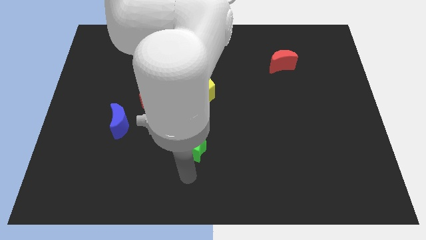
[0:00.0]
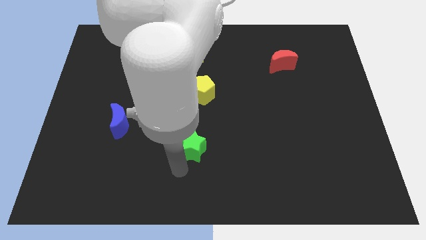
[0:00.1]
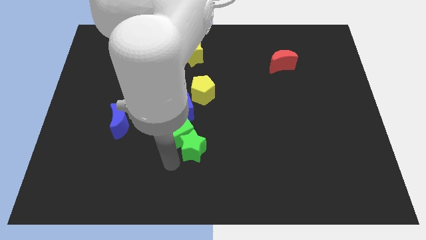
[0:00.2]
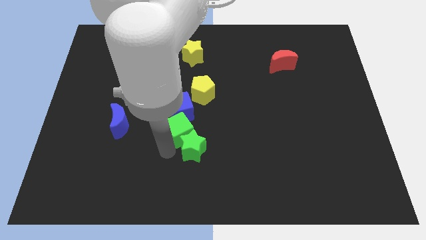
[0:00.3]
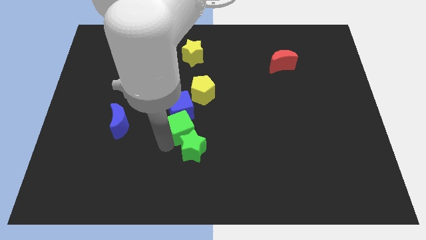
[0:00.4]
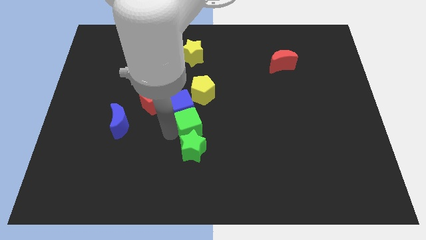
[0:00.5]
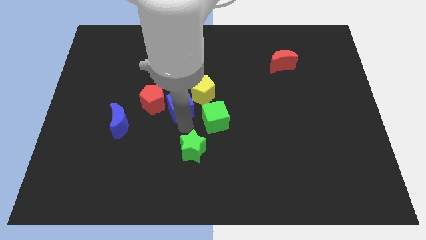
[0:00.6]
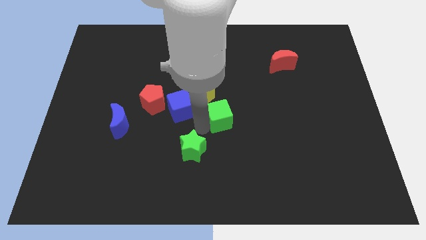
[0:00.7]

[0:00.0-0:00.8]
pull the green star apart from the green cube

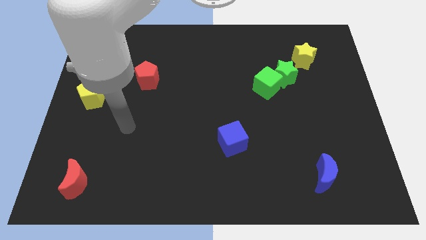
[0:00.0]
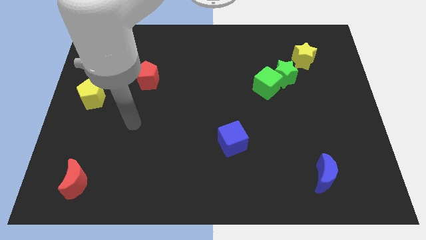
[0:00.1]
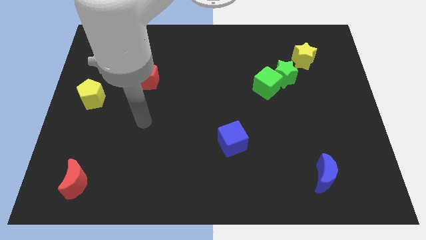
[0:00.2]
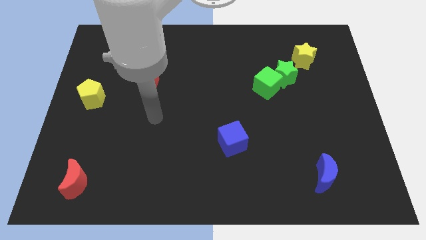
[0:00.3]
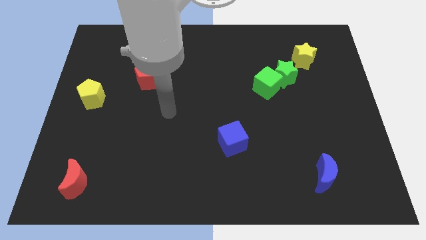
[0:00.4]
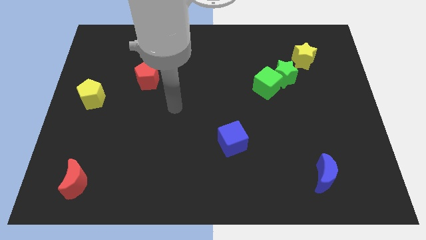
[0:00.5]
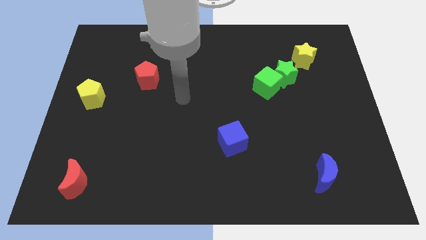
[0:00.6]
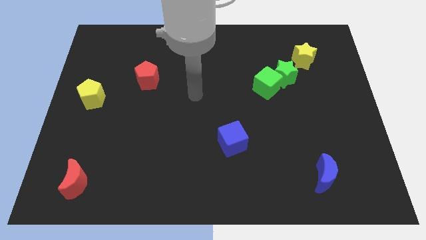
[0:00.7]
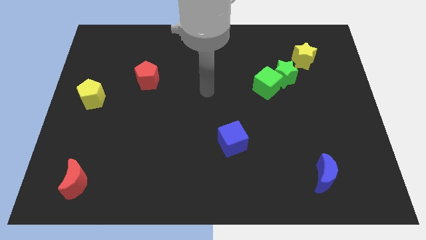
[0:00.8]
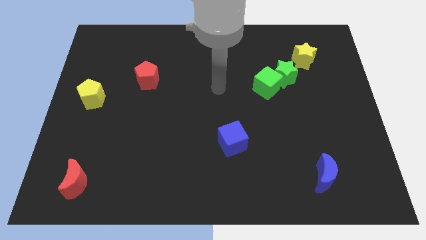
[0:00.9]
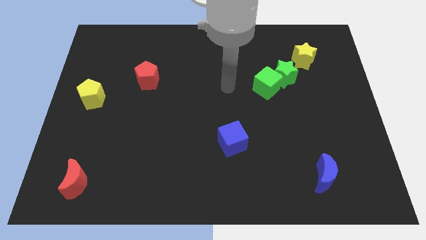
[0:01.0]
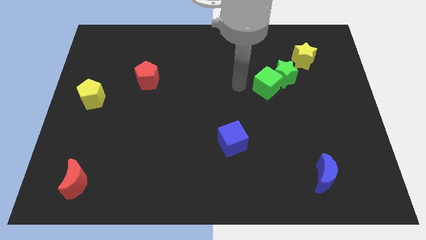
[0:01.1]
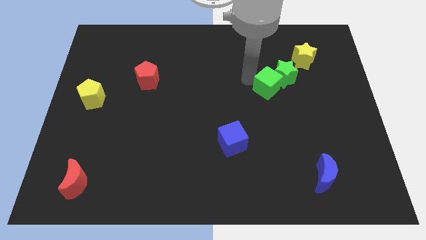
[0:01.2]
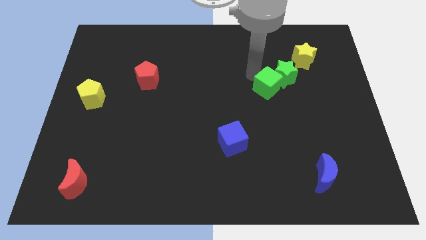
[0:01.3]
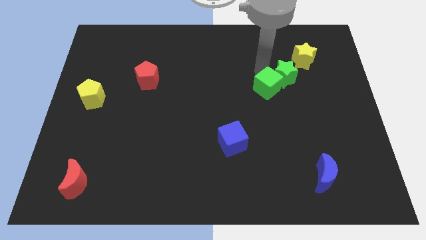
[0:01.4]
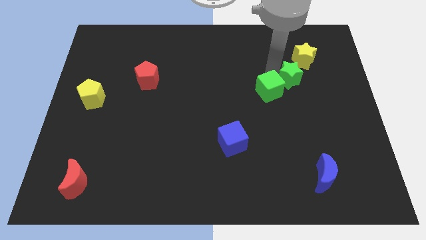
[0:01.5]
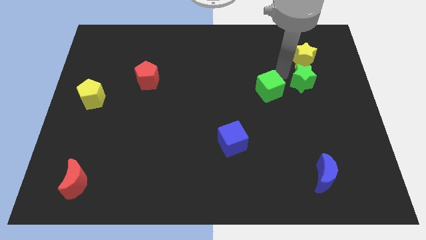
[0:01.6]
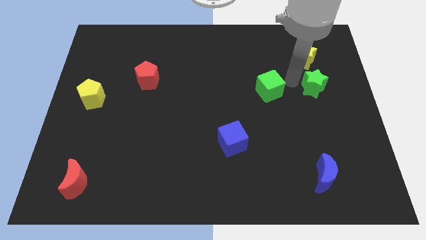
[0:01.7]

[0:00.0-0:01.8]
separate the green cube from the green star

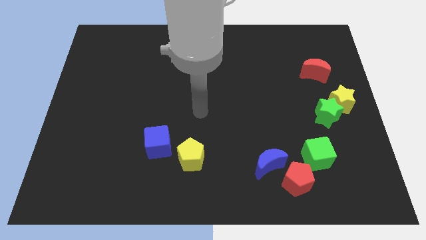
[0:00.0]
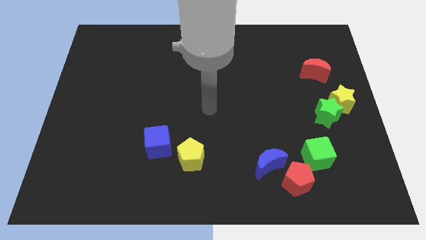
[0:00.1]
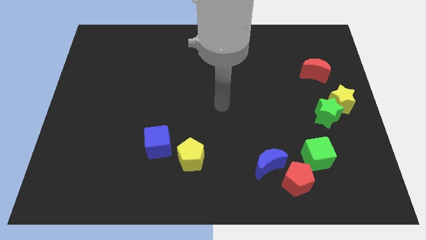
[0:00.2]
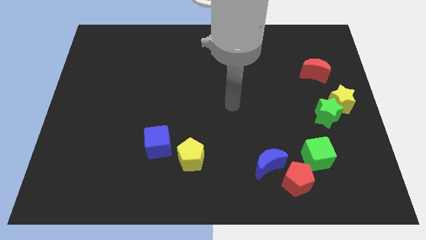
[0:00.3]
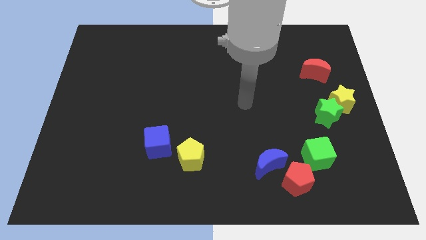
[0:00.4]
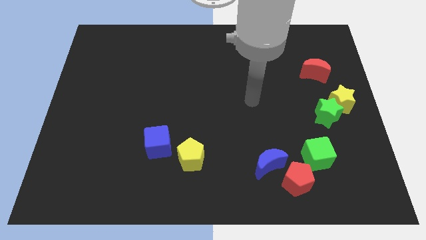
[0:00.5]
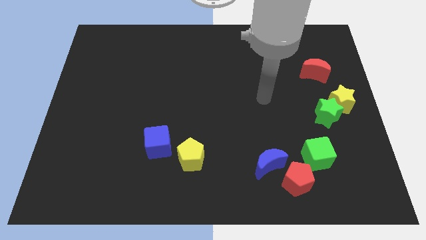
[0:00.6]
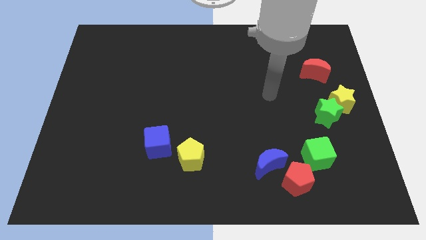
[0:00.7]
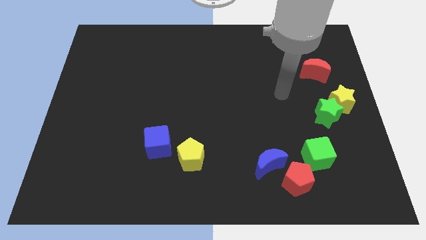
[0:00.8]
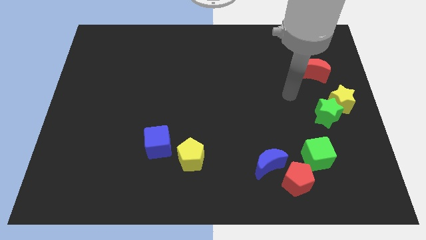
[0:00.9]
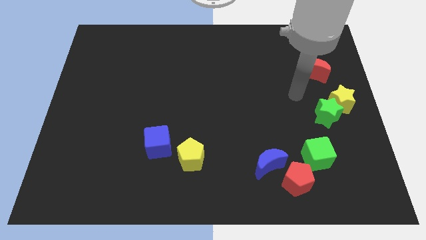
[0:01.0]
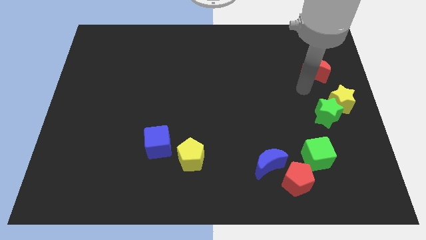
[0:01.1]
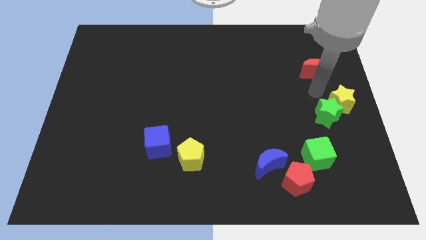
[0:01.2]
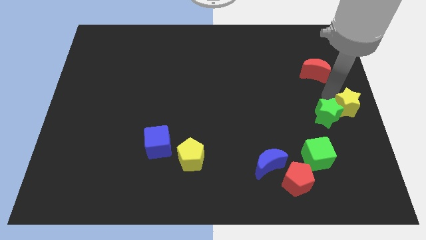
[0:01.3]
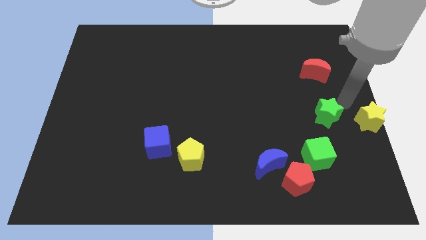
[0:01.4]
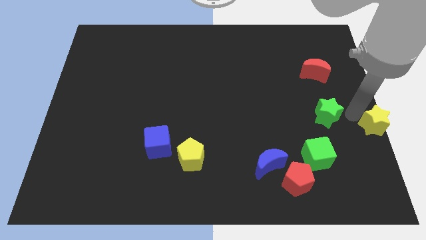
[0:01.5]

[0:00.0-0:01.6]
pull the green star apart from the yellow star

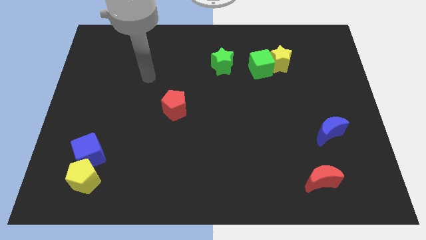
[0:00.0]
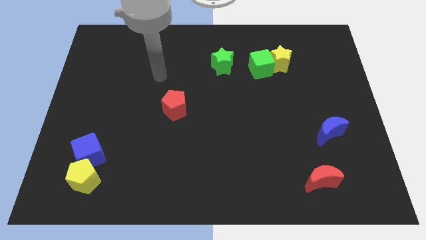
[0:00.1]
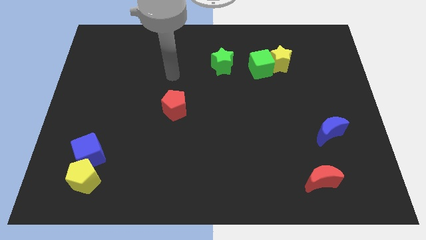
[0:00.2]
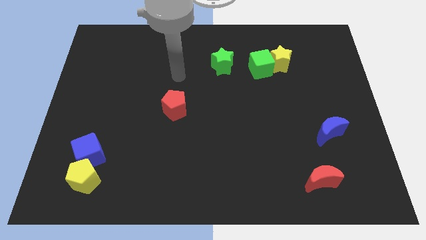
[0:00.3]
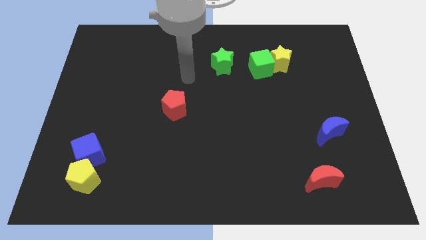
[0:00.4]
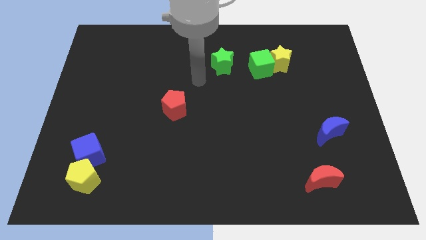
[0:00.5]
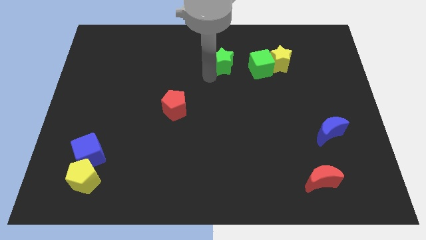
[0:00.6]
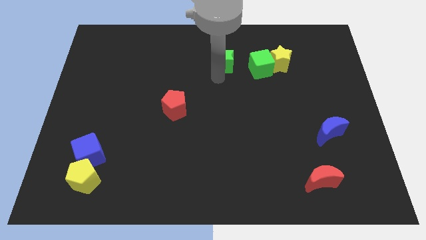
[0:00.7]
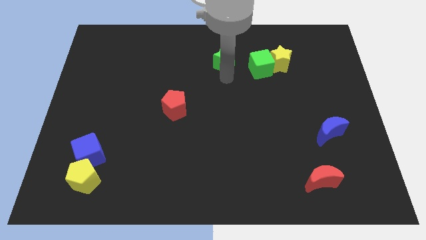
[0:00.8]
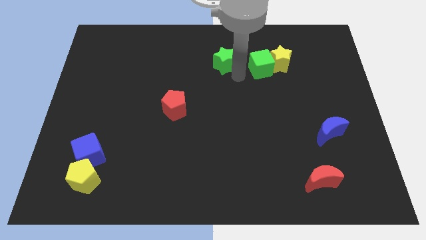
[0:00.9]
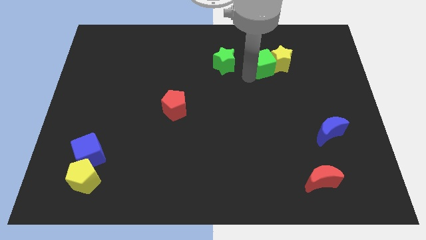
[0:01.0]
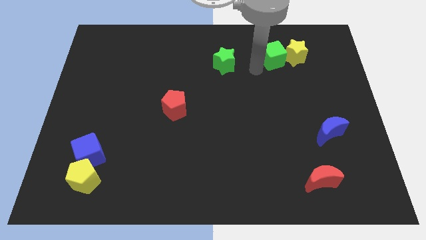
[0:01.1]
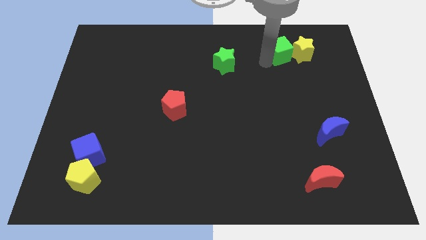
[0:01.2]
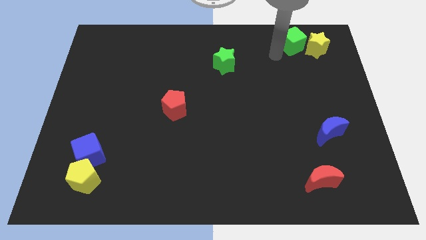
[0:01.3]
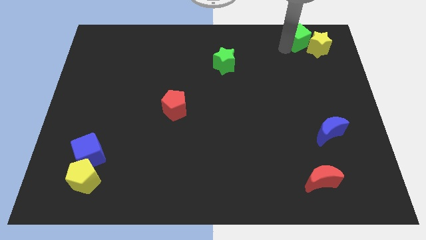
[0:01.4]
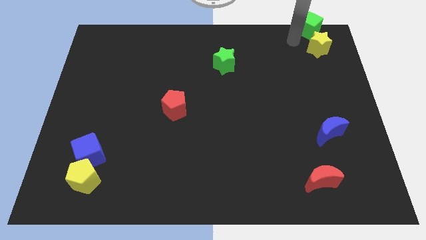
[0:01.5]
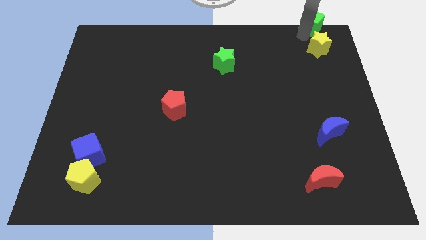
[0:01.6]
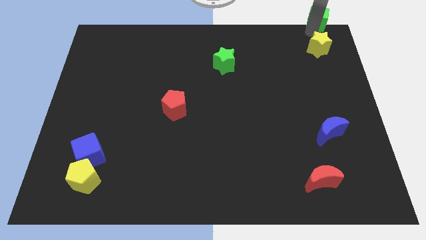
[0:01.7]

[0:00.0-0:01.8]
pull the yellow star apart from the green cube

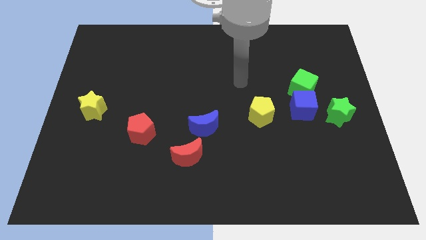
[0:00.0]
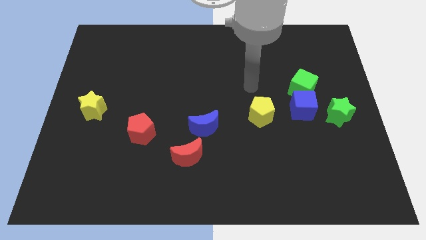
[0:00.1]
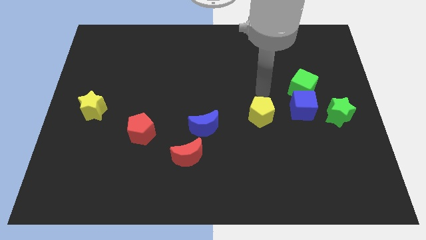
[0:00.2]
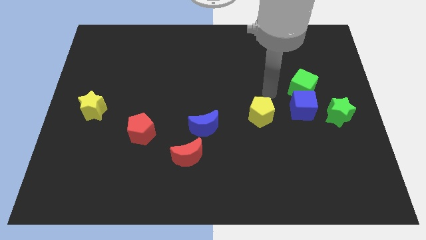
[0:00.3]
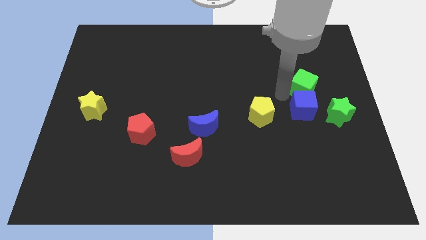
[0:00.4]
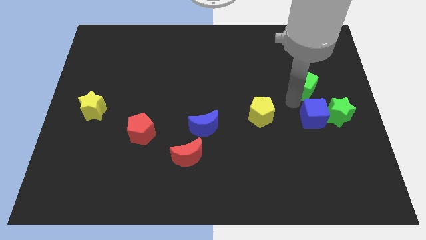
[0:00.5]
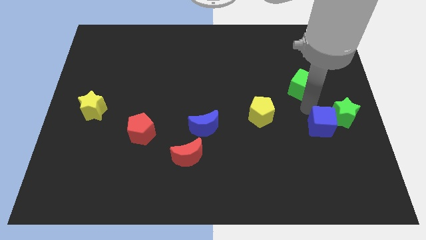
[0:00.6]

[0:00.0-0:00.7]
pull the green cube apart from the blue cube

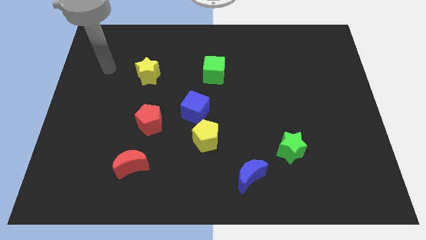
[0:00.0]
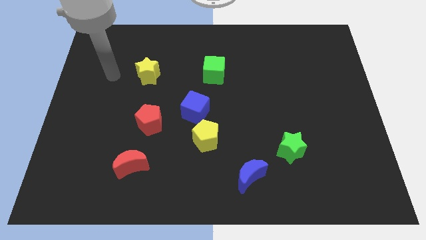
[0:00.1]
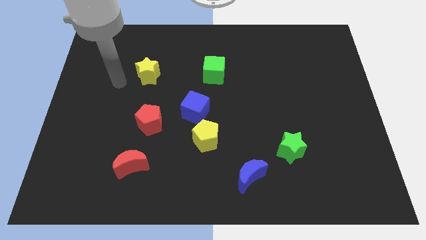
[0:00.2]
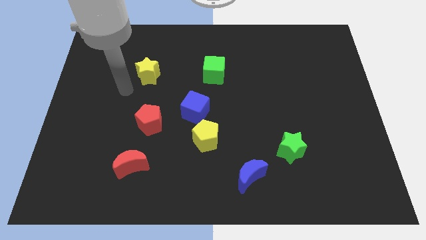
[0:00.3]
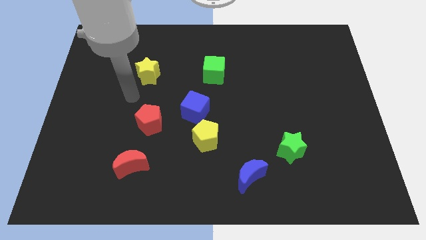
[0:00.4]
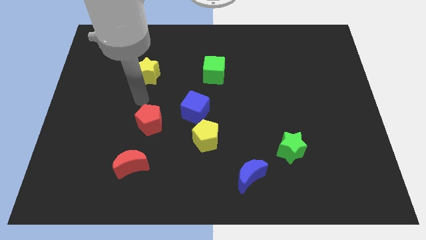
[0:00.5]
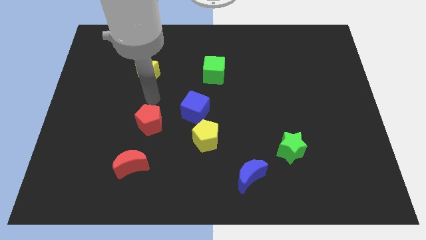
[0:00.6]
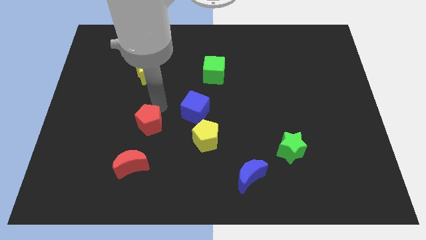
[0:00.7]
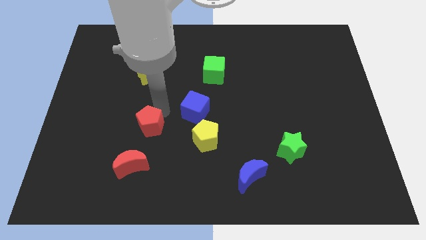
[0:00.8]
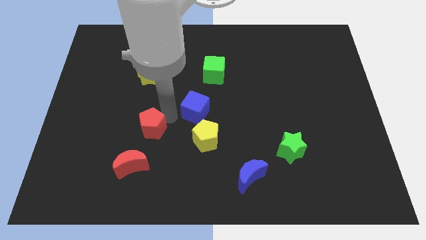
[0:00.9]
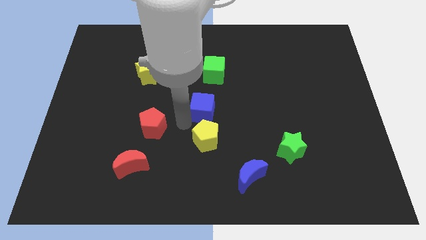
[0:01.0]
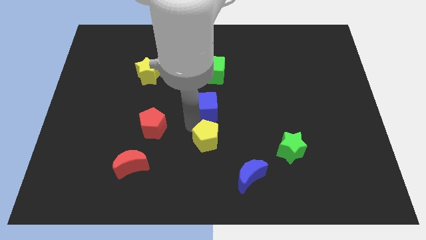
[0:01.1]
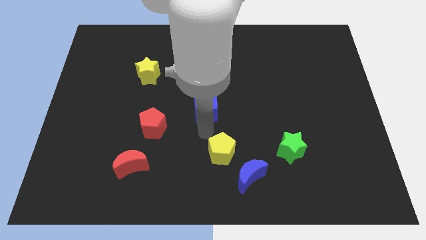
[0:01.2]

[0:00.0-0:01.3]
separate the blue cube from the yellow pentagon

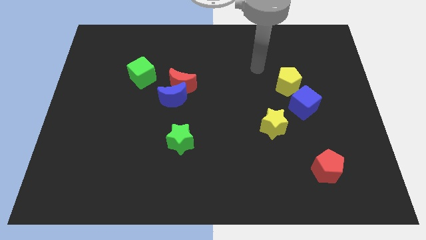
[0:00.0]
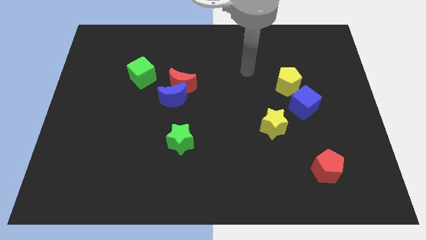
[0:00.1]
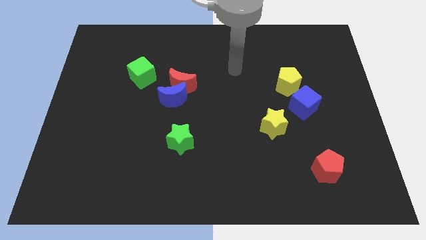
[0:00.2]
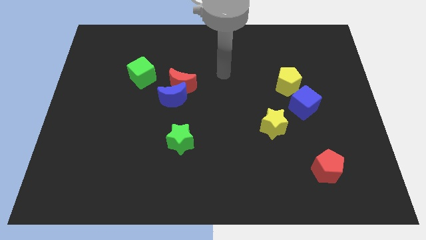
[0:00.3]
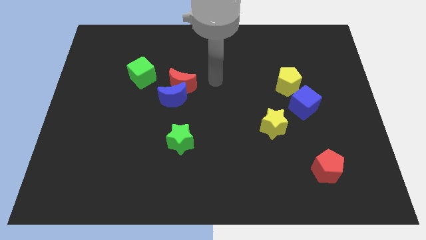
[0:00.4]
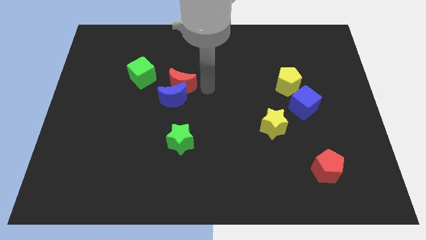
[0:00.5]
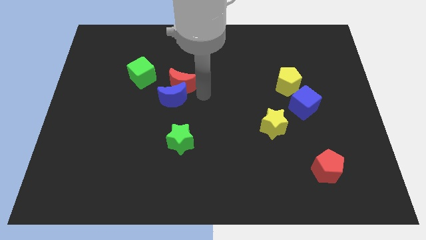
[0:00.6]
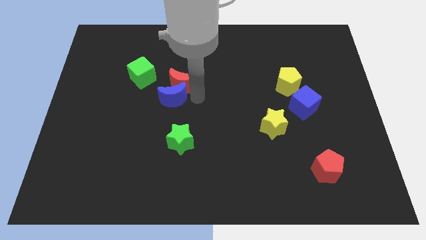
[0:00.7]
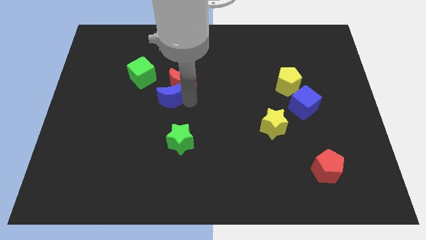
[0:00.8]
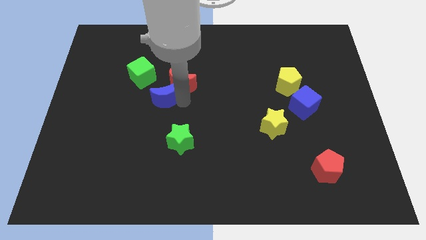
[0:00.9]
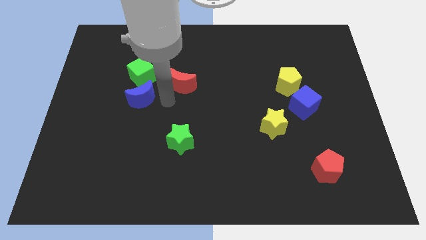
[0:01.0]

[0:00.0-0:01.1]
move the red moon away from the blue moon

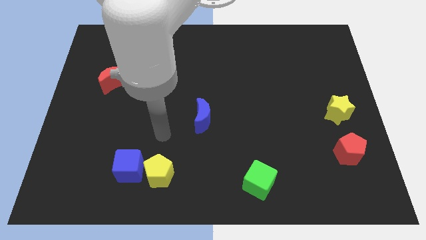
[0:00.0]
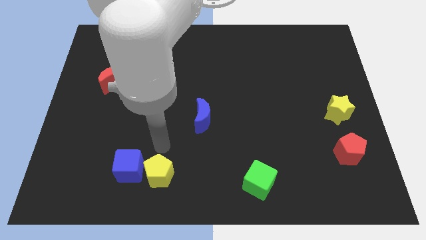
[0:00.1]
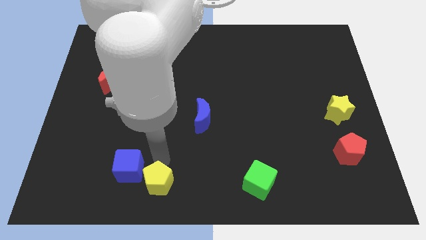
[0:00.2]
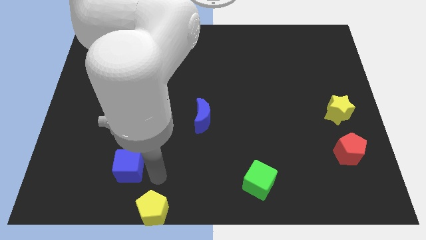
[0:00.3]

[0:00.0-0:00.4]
move the blue cube away from the yellow pentagon
